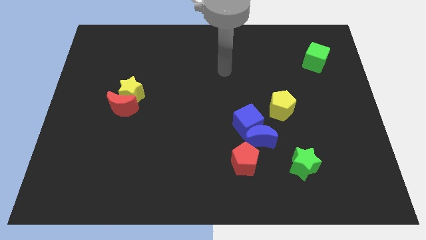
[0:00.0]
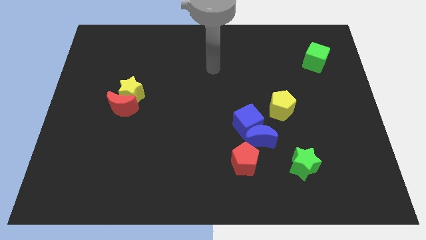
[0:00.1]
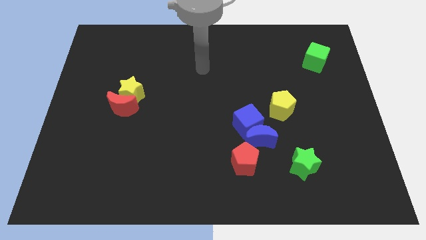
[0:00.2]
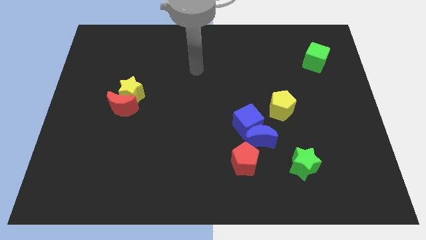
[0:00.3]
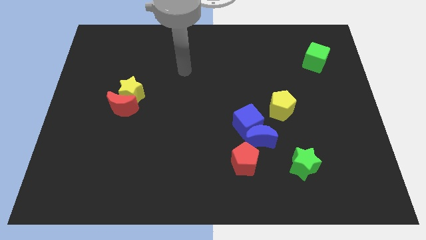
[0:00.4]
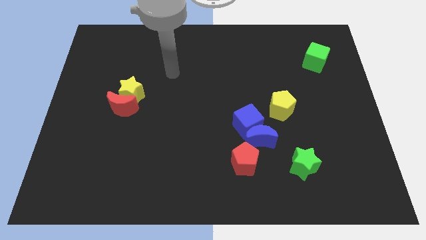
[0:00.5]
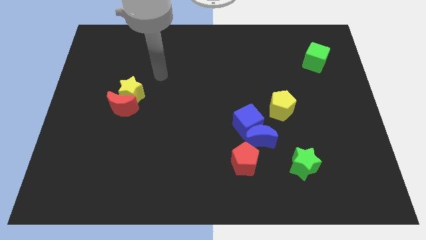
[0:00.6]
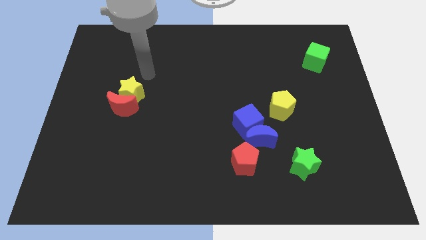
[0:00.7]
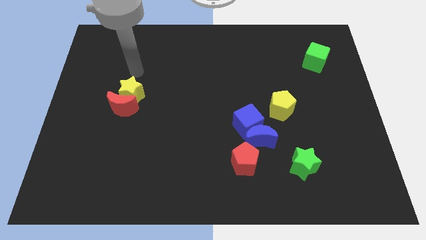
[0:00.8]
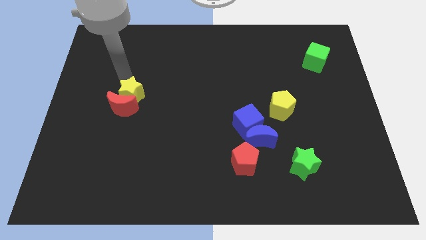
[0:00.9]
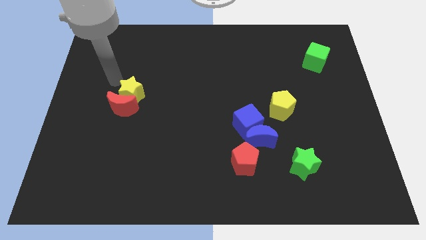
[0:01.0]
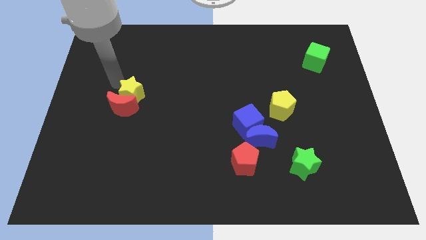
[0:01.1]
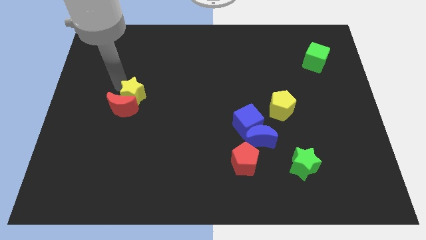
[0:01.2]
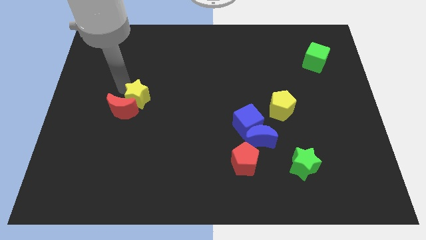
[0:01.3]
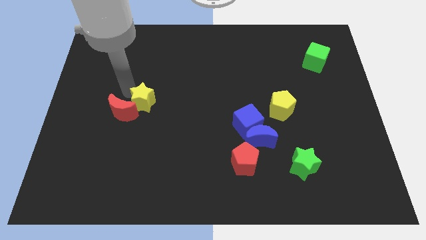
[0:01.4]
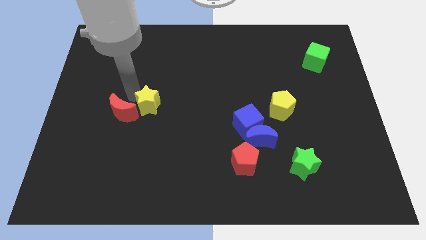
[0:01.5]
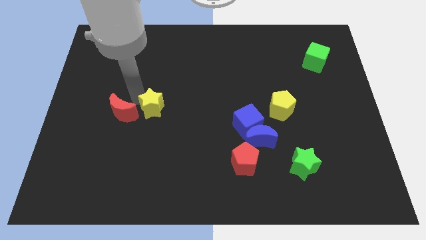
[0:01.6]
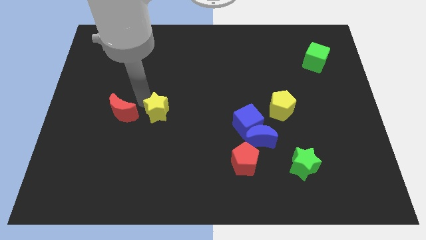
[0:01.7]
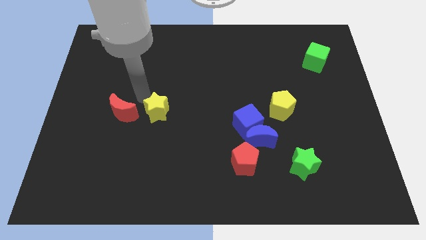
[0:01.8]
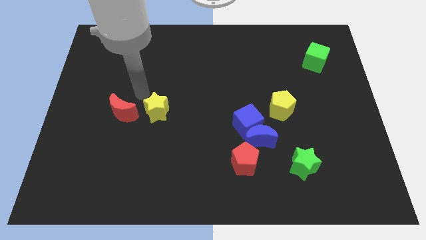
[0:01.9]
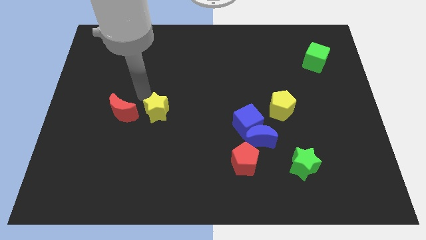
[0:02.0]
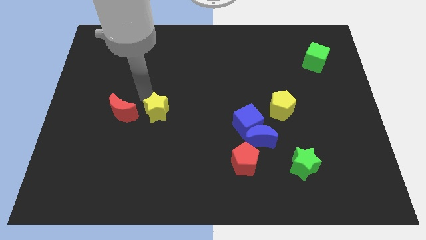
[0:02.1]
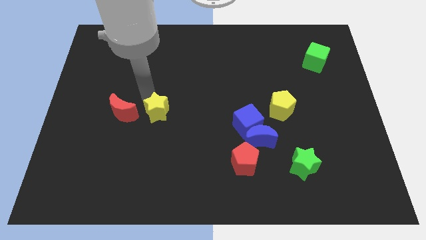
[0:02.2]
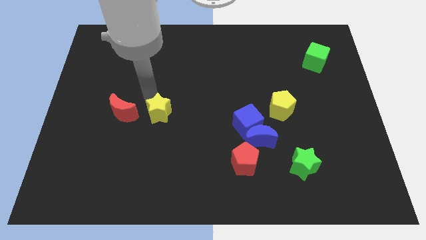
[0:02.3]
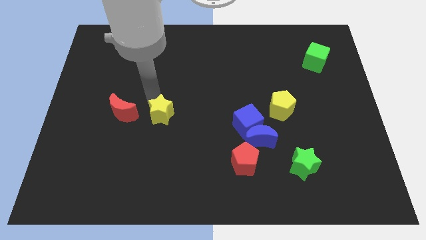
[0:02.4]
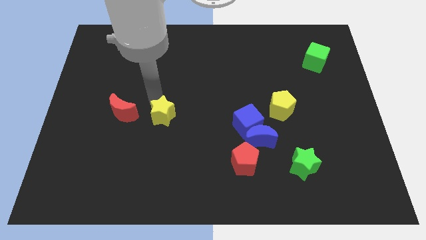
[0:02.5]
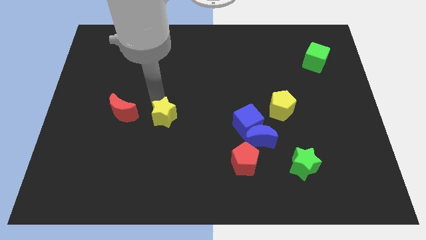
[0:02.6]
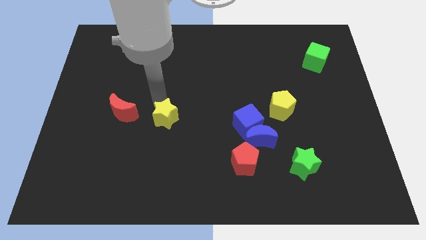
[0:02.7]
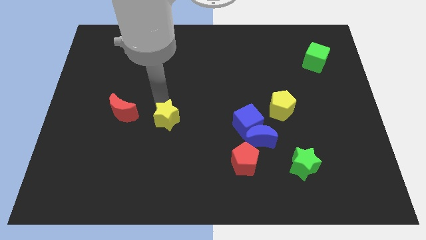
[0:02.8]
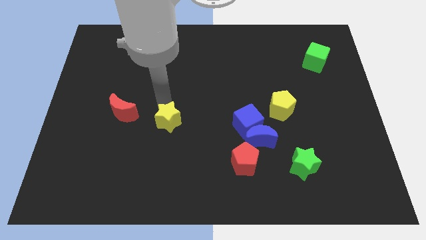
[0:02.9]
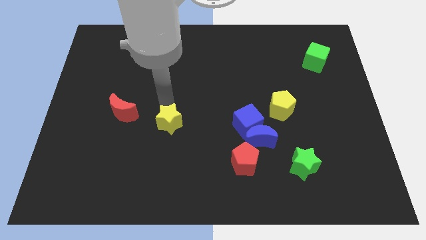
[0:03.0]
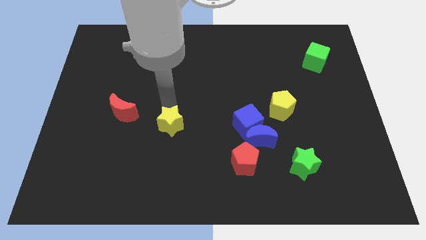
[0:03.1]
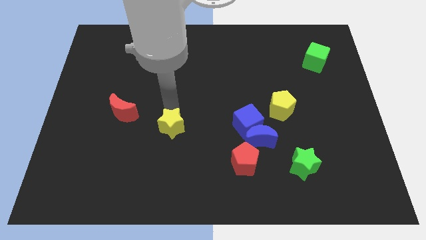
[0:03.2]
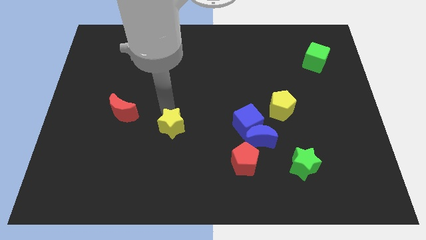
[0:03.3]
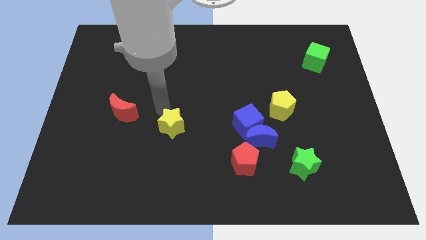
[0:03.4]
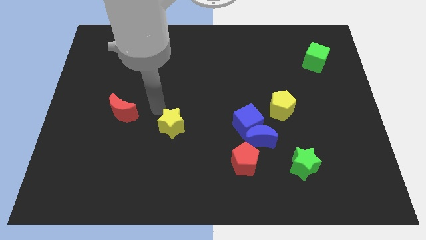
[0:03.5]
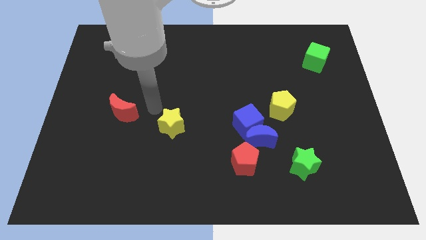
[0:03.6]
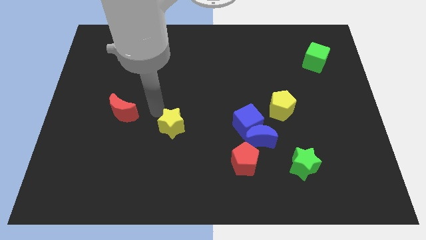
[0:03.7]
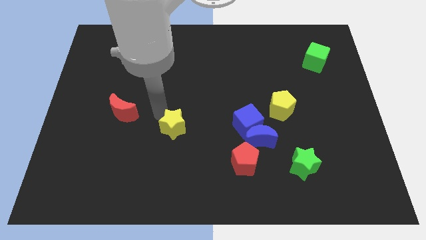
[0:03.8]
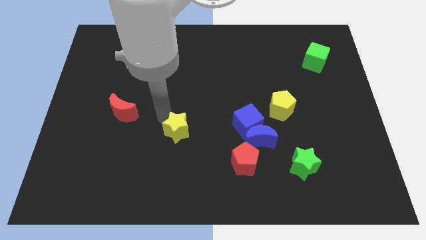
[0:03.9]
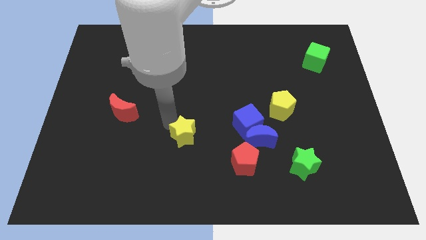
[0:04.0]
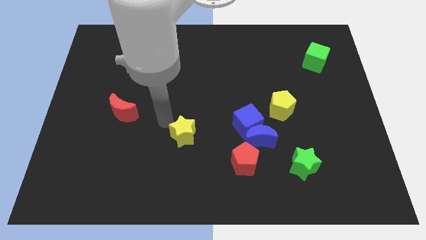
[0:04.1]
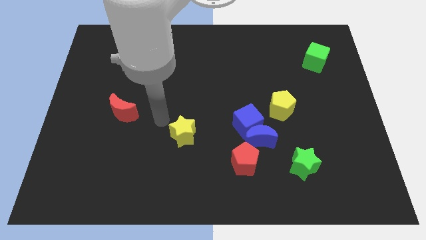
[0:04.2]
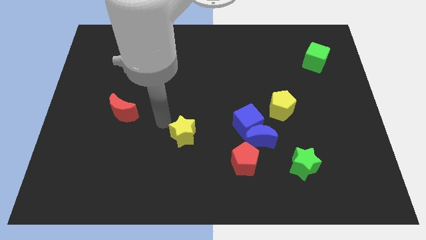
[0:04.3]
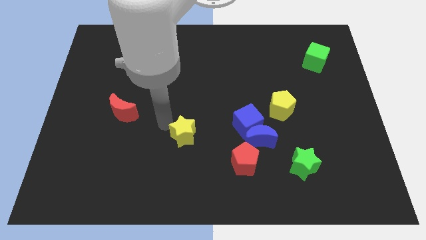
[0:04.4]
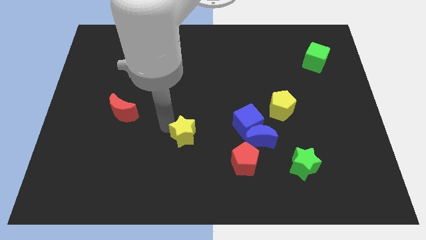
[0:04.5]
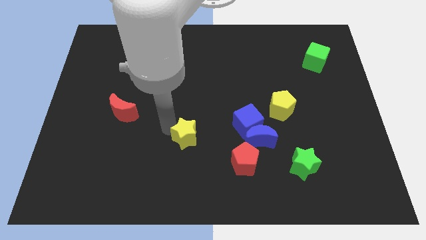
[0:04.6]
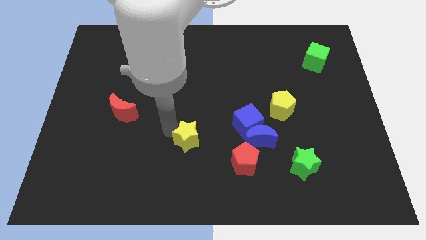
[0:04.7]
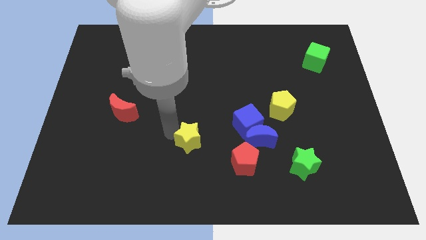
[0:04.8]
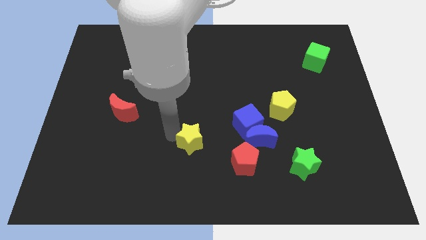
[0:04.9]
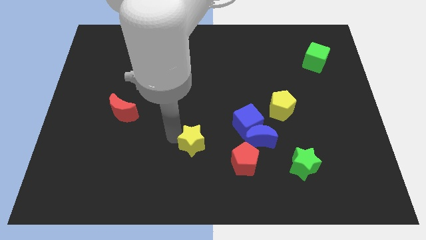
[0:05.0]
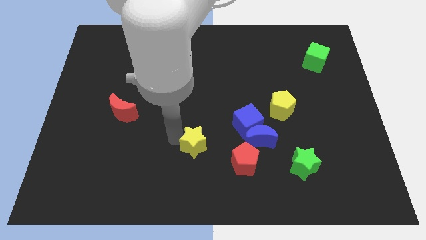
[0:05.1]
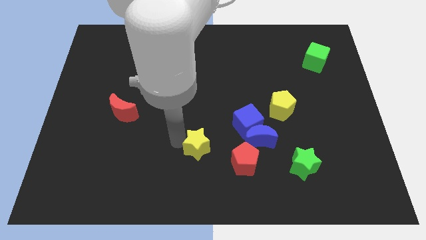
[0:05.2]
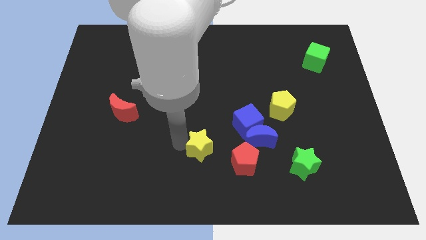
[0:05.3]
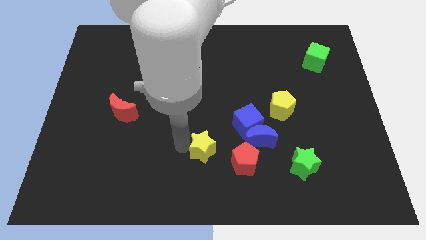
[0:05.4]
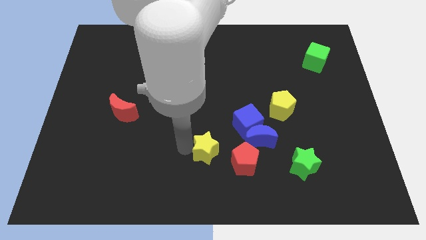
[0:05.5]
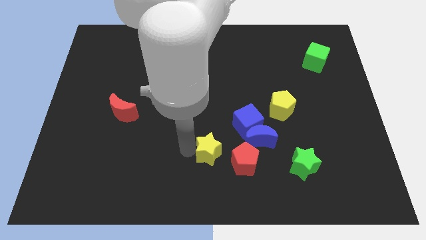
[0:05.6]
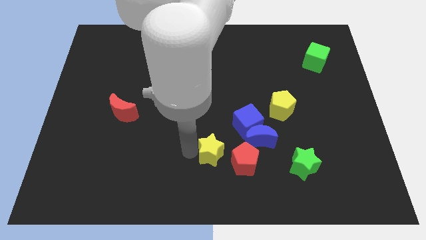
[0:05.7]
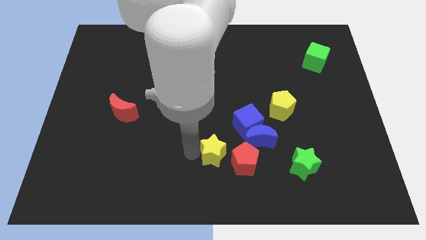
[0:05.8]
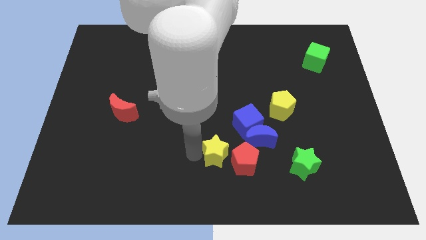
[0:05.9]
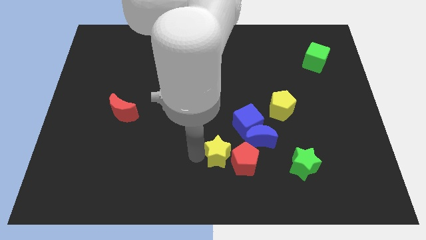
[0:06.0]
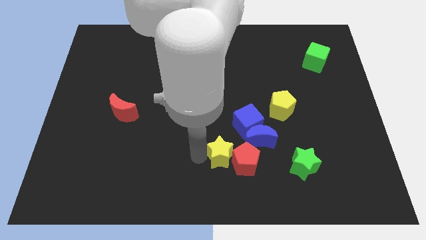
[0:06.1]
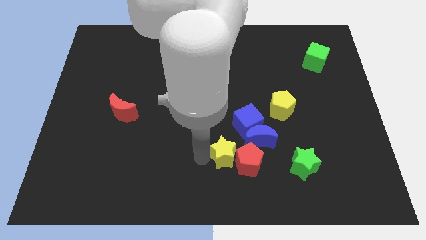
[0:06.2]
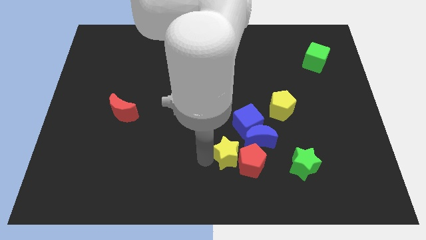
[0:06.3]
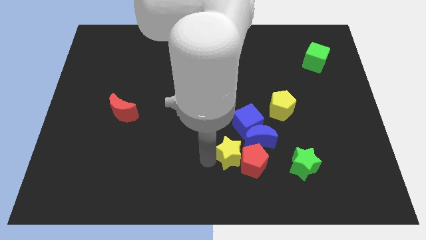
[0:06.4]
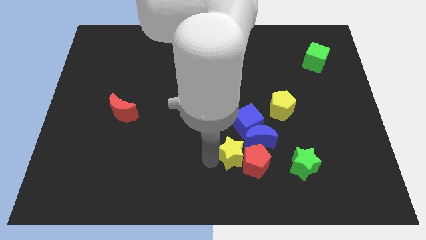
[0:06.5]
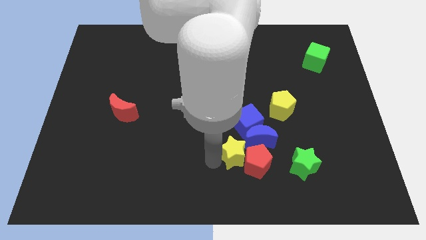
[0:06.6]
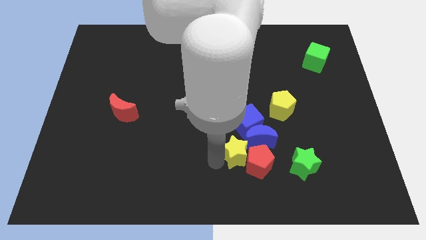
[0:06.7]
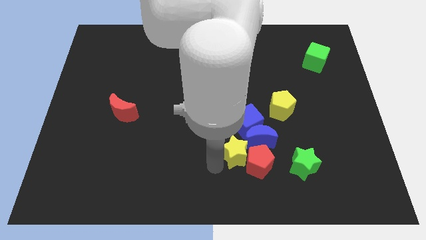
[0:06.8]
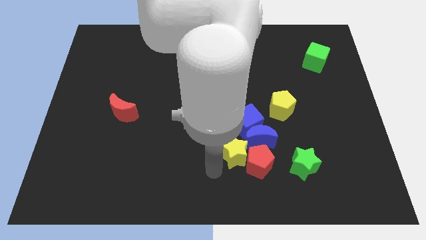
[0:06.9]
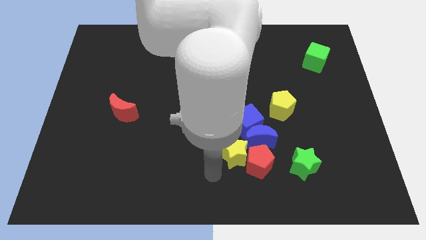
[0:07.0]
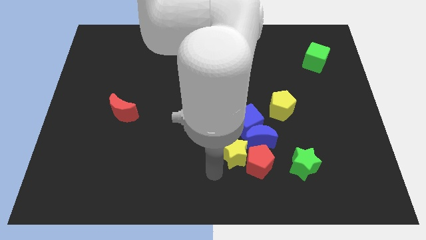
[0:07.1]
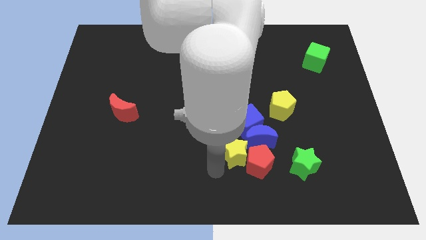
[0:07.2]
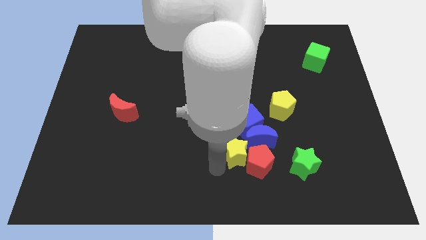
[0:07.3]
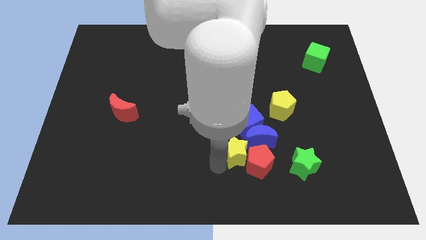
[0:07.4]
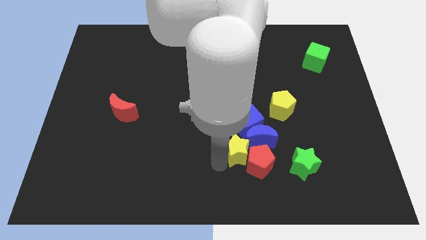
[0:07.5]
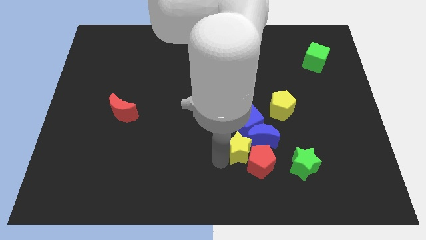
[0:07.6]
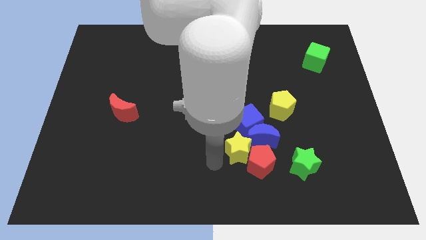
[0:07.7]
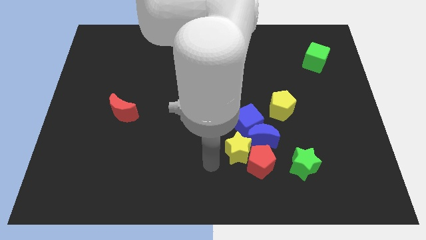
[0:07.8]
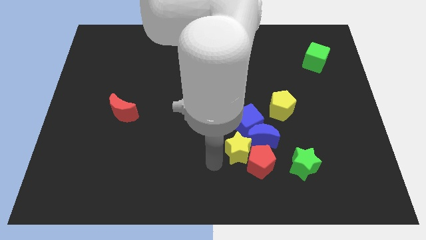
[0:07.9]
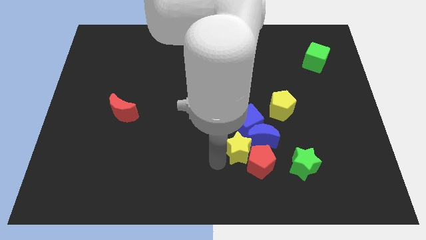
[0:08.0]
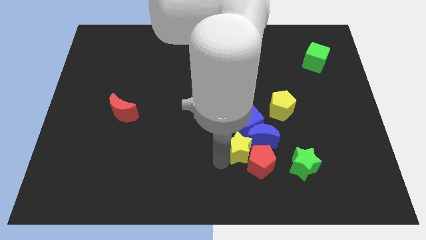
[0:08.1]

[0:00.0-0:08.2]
slide the yellow star to the blue moon
